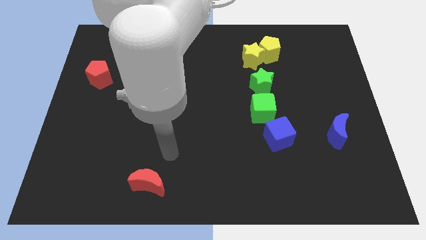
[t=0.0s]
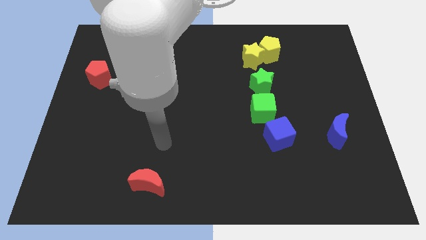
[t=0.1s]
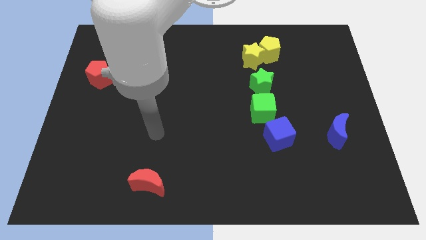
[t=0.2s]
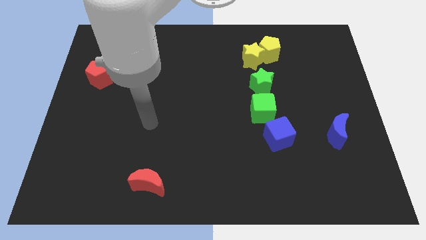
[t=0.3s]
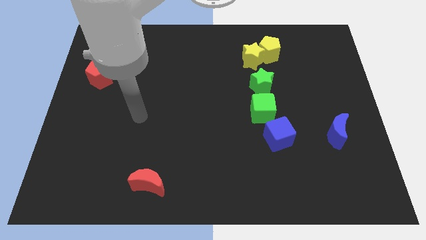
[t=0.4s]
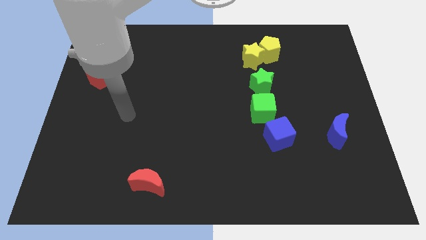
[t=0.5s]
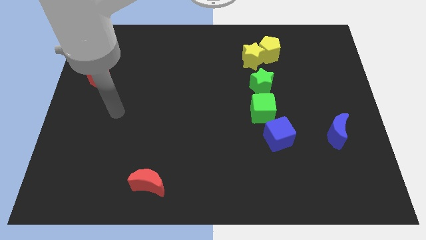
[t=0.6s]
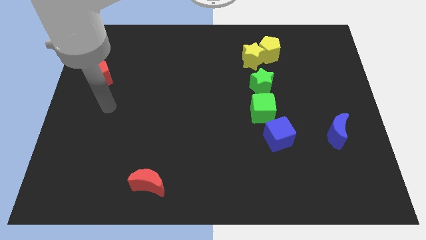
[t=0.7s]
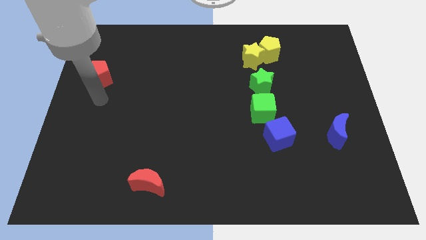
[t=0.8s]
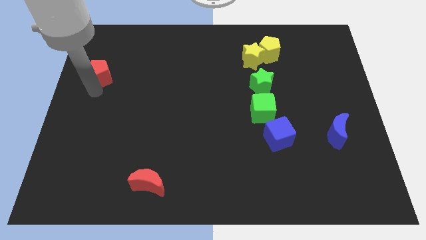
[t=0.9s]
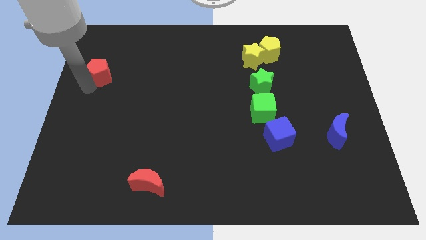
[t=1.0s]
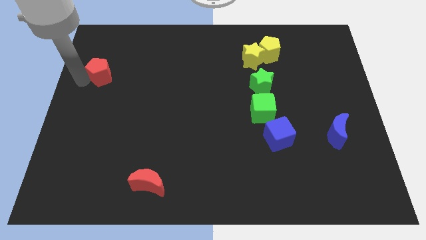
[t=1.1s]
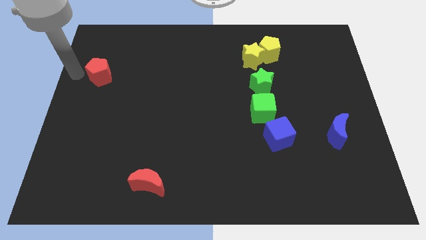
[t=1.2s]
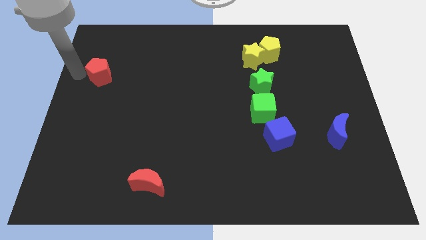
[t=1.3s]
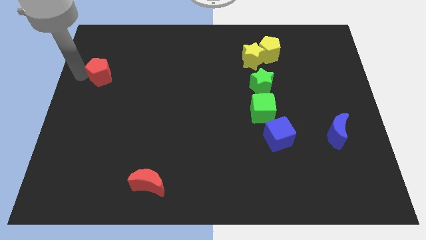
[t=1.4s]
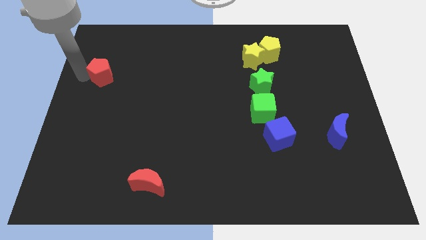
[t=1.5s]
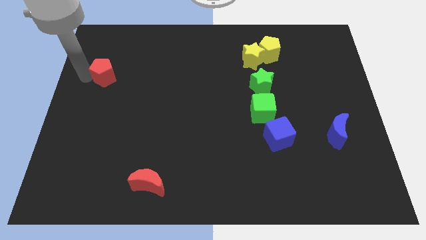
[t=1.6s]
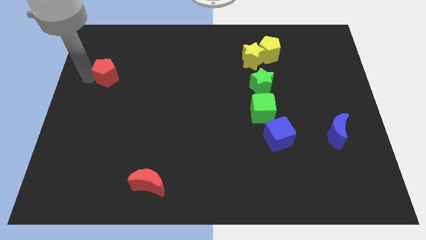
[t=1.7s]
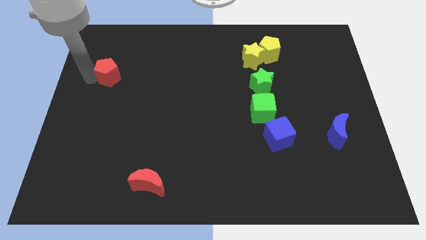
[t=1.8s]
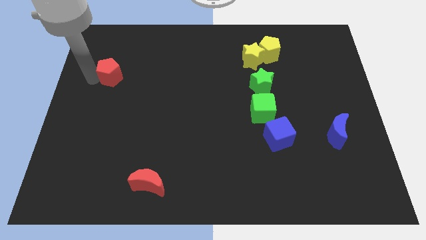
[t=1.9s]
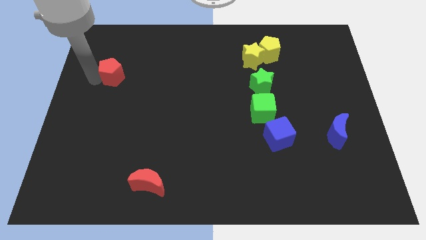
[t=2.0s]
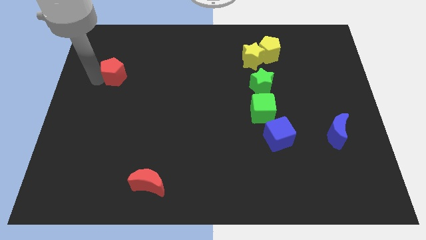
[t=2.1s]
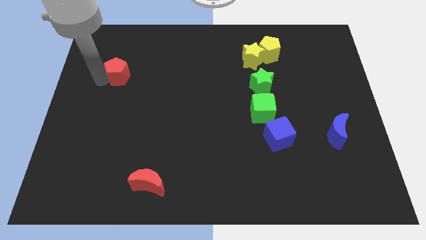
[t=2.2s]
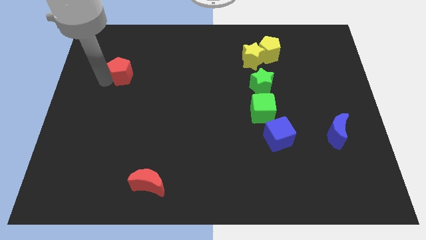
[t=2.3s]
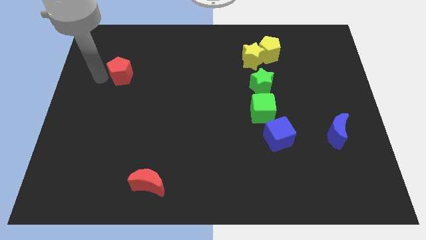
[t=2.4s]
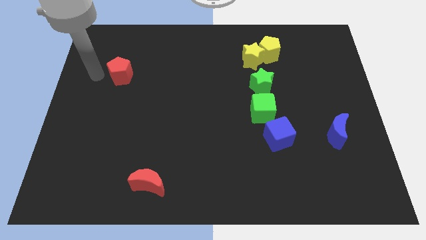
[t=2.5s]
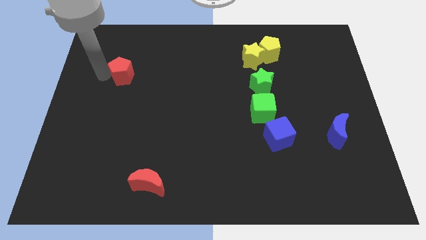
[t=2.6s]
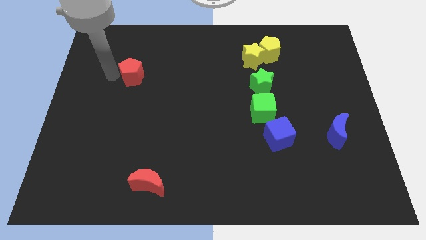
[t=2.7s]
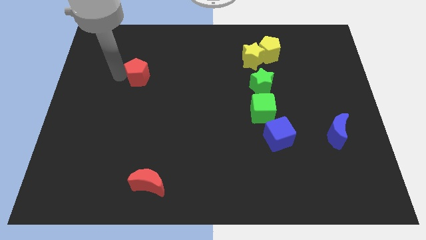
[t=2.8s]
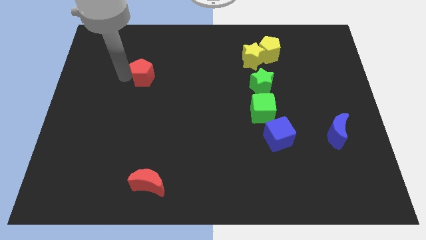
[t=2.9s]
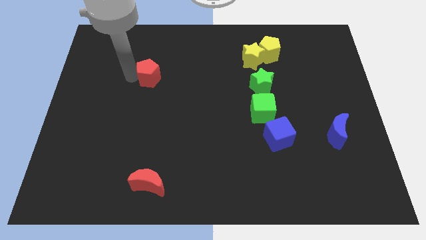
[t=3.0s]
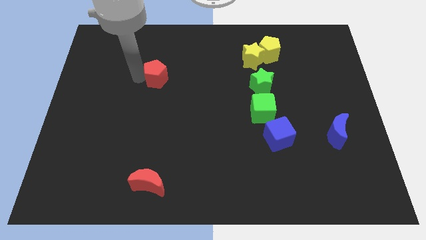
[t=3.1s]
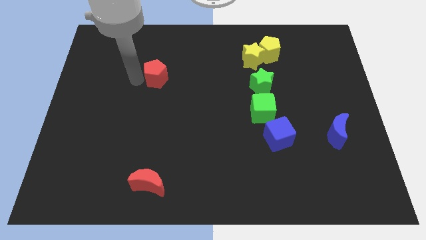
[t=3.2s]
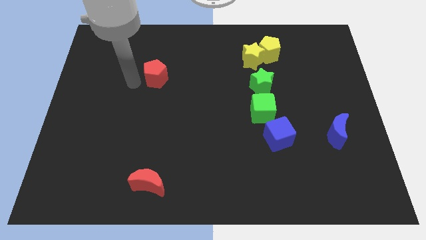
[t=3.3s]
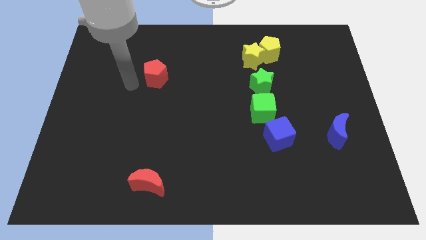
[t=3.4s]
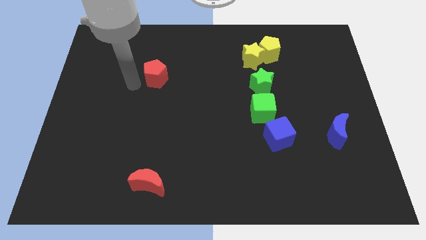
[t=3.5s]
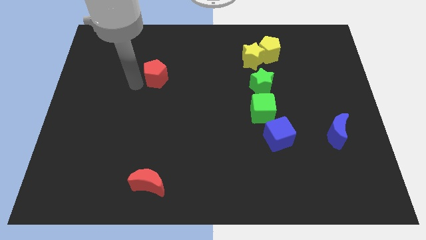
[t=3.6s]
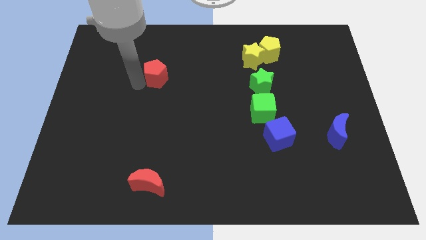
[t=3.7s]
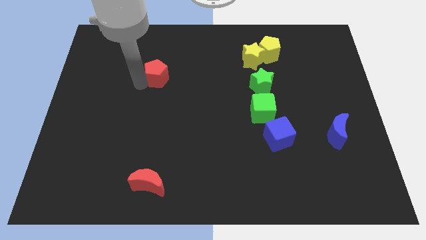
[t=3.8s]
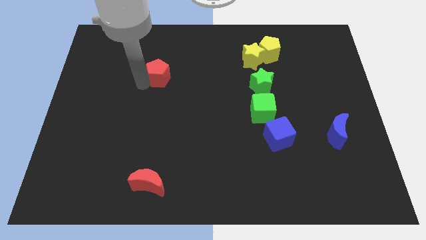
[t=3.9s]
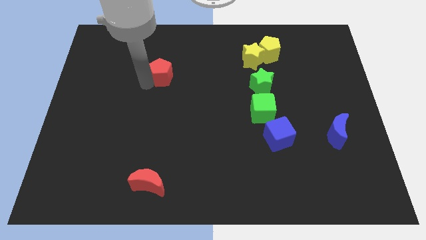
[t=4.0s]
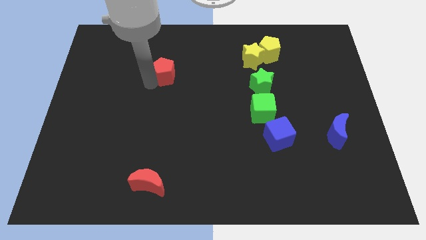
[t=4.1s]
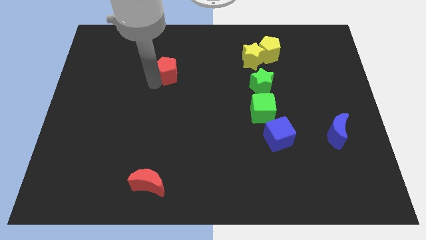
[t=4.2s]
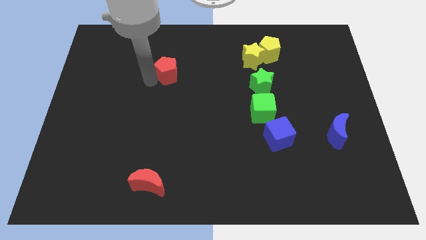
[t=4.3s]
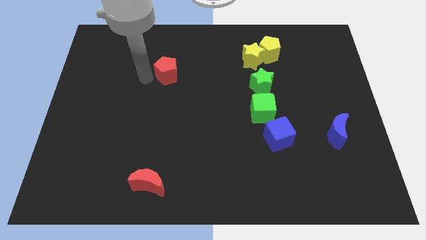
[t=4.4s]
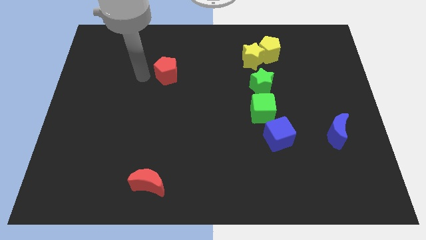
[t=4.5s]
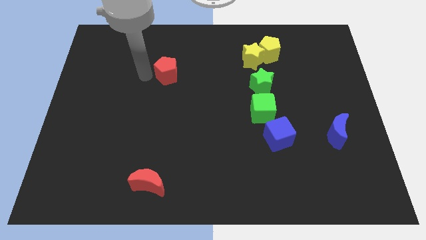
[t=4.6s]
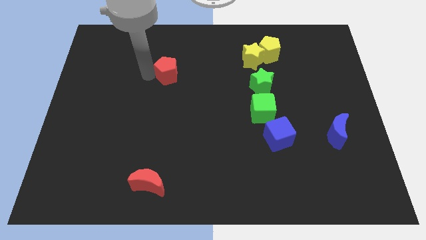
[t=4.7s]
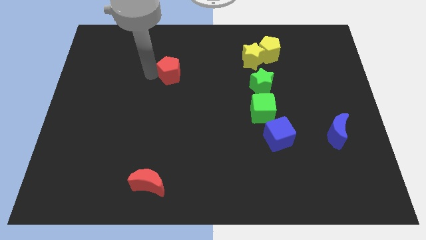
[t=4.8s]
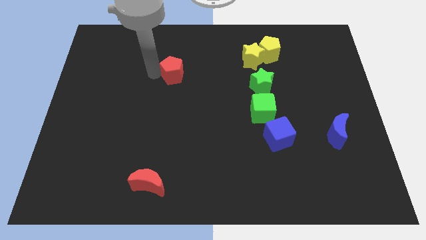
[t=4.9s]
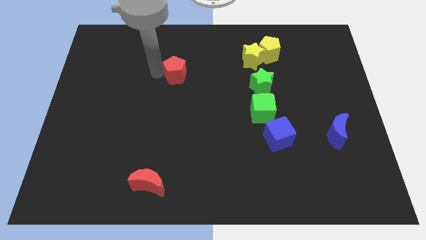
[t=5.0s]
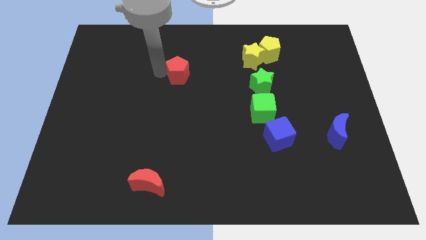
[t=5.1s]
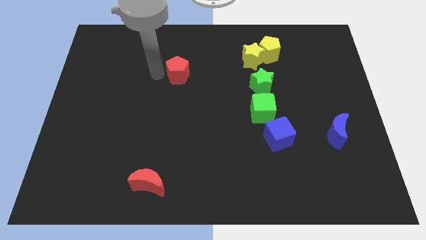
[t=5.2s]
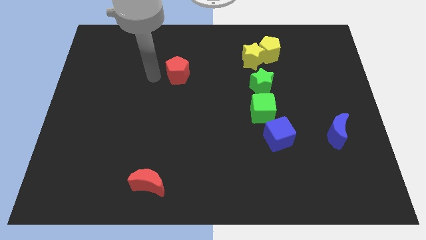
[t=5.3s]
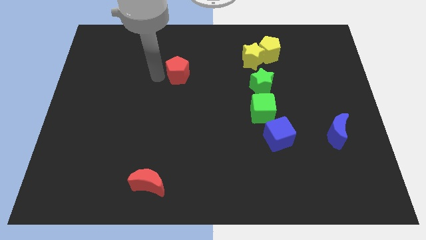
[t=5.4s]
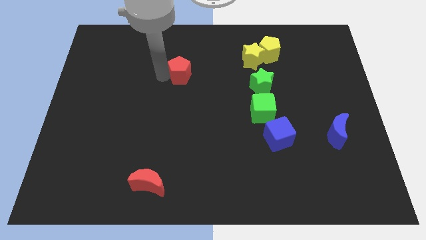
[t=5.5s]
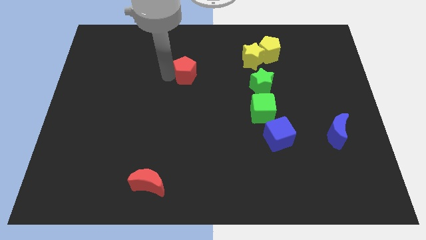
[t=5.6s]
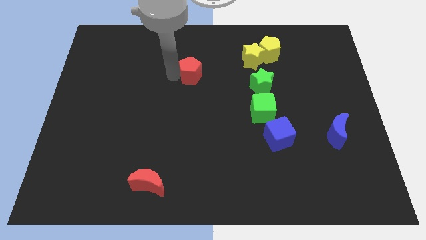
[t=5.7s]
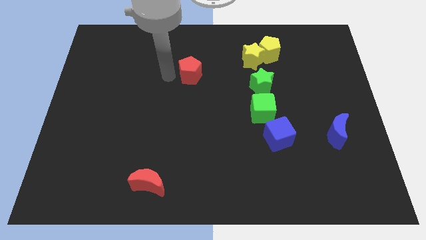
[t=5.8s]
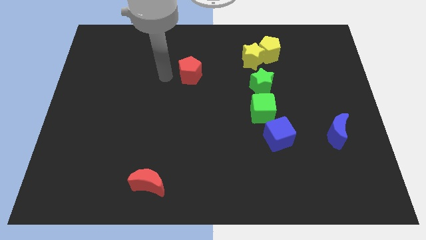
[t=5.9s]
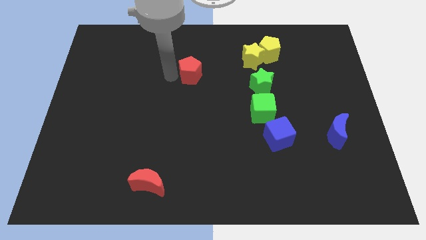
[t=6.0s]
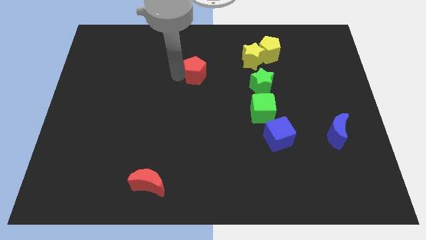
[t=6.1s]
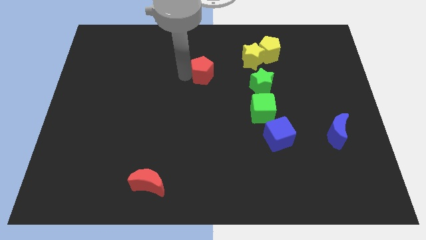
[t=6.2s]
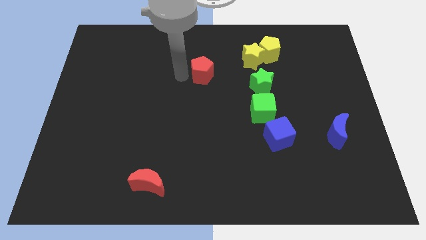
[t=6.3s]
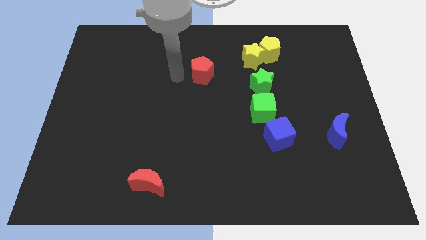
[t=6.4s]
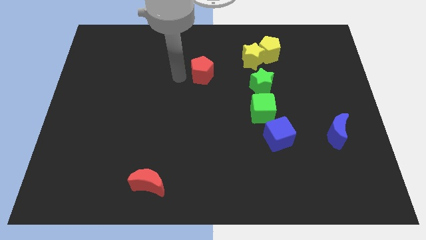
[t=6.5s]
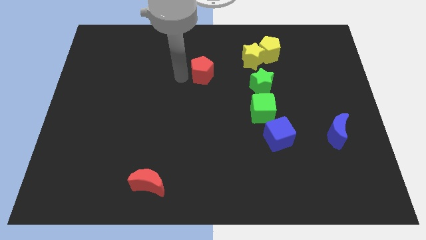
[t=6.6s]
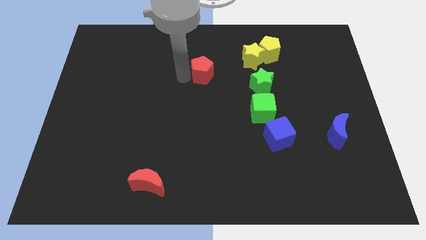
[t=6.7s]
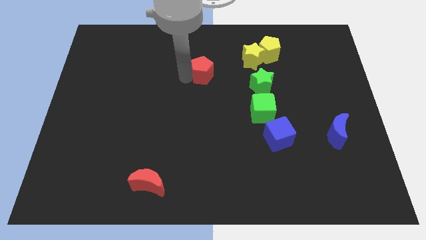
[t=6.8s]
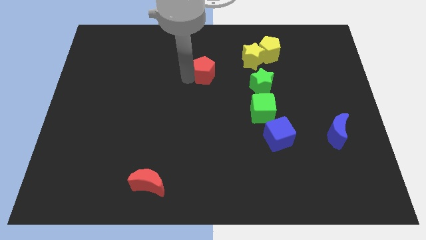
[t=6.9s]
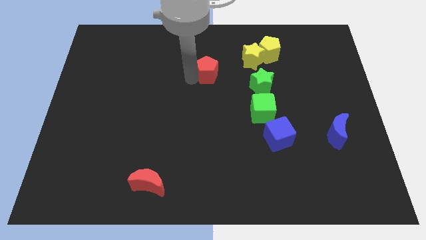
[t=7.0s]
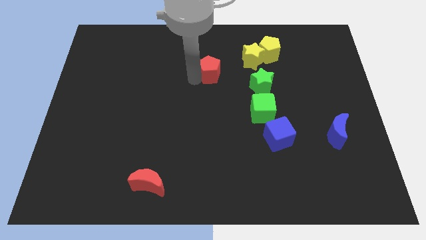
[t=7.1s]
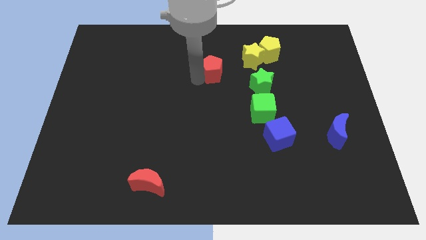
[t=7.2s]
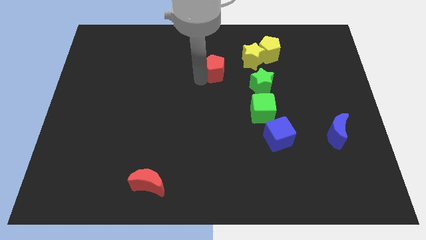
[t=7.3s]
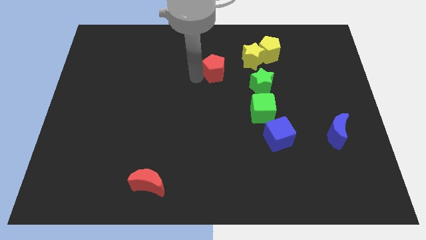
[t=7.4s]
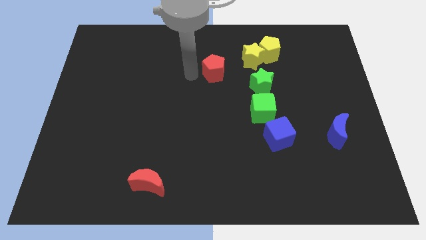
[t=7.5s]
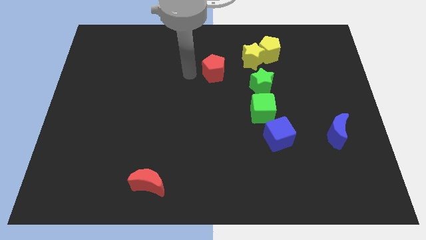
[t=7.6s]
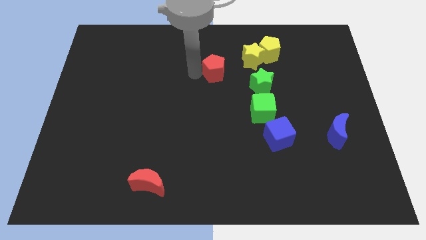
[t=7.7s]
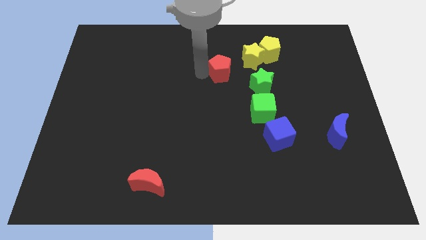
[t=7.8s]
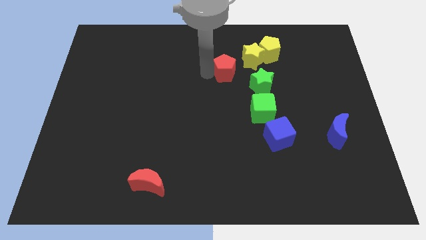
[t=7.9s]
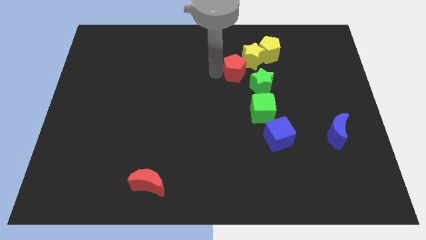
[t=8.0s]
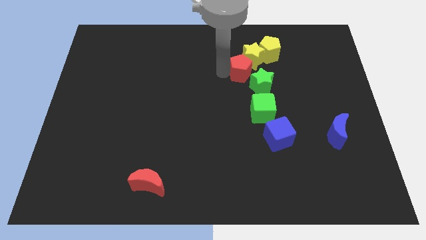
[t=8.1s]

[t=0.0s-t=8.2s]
push the red pentagon above the green cube
